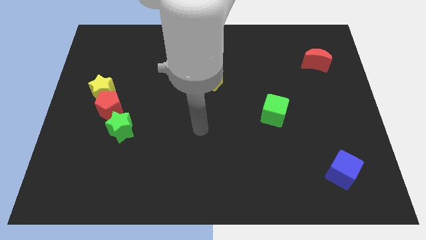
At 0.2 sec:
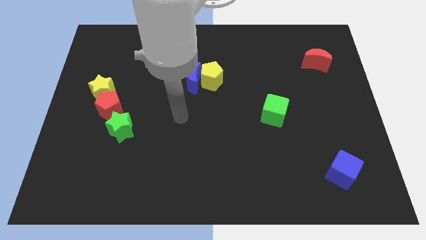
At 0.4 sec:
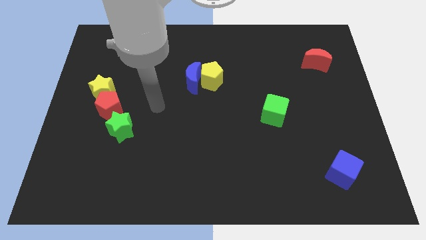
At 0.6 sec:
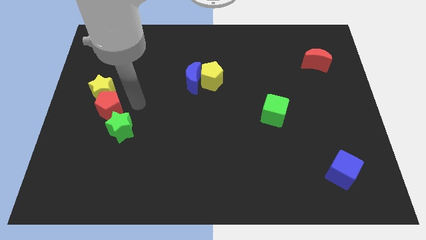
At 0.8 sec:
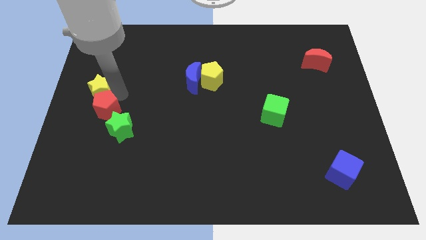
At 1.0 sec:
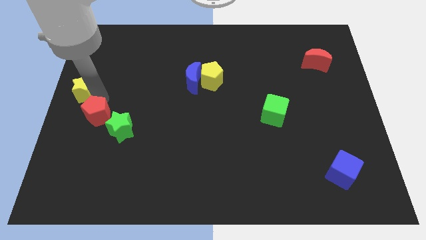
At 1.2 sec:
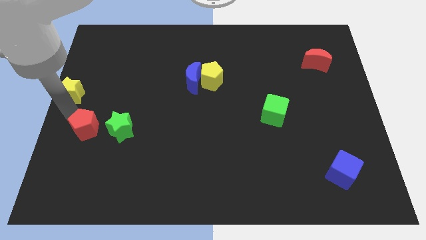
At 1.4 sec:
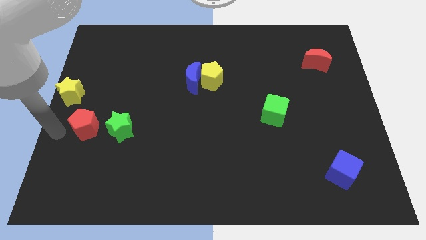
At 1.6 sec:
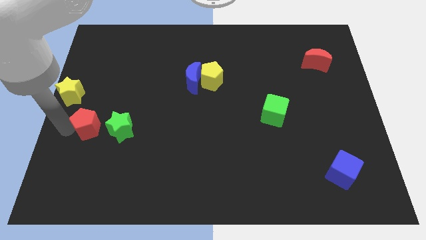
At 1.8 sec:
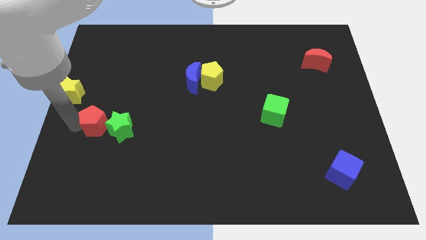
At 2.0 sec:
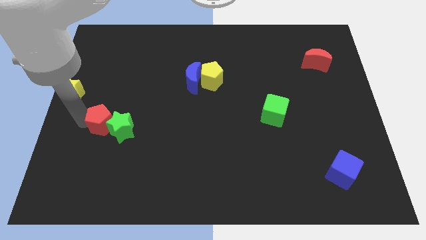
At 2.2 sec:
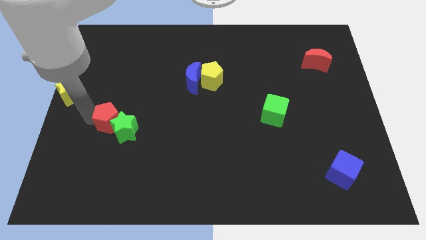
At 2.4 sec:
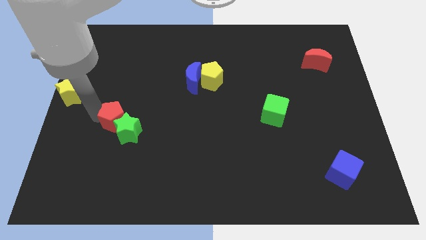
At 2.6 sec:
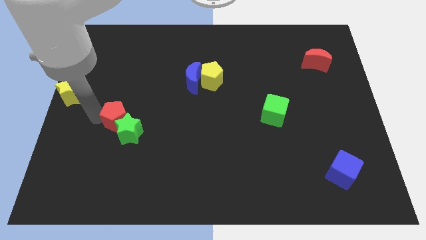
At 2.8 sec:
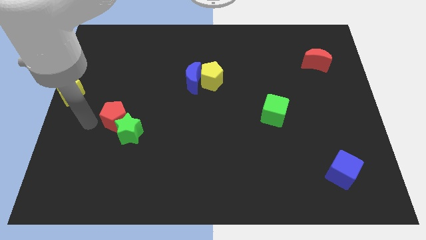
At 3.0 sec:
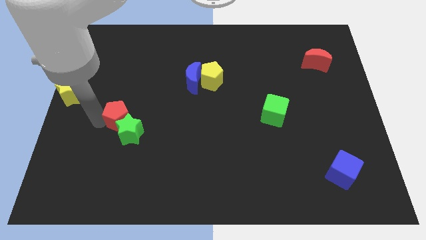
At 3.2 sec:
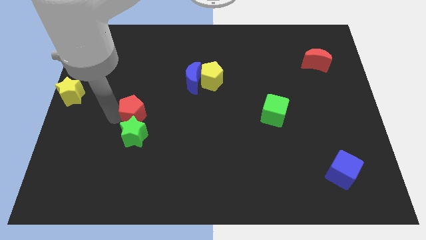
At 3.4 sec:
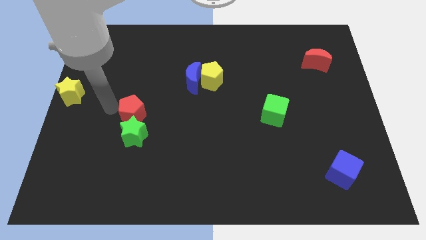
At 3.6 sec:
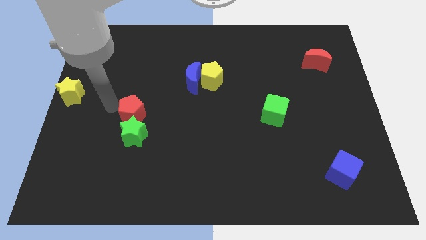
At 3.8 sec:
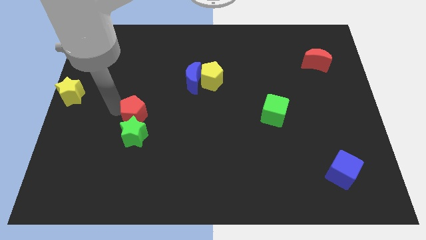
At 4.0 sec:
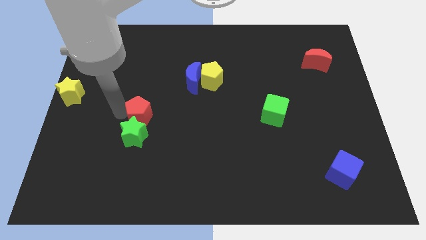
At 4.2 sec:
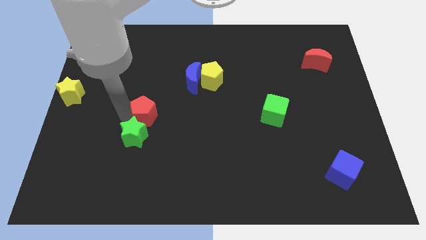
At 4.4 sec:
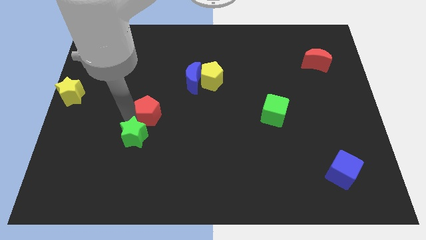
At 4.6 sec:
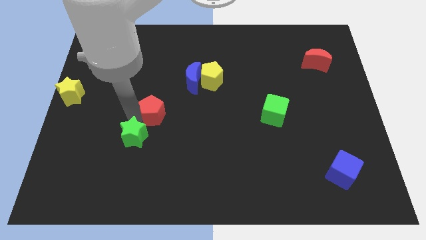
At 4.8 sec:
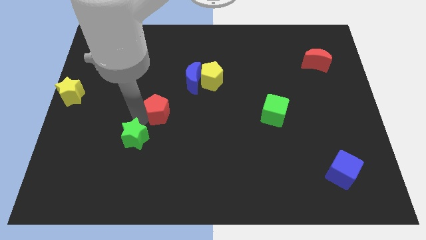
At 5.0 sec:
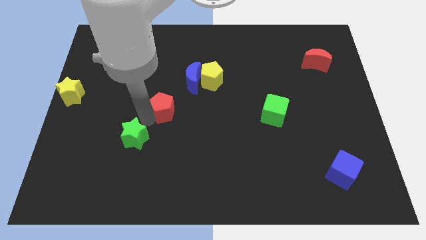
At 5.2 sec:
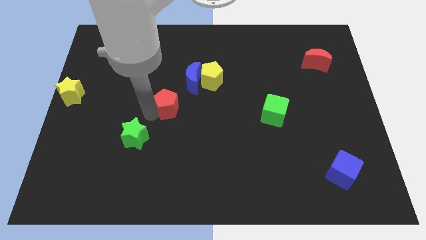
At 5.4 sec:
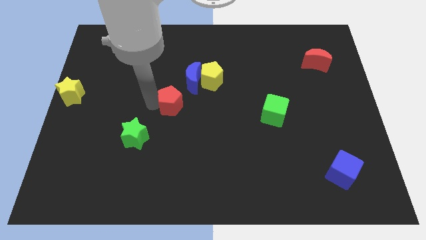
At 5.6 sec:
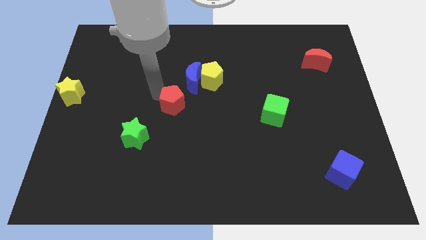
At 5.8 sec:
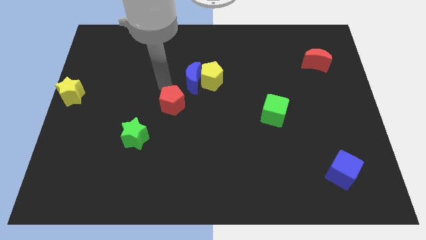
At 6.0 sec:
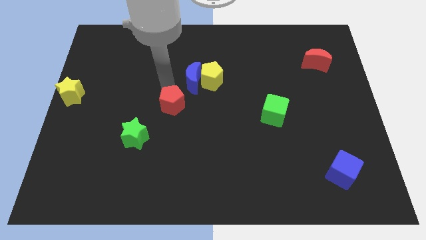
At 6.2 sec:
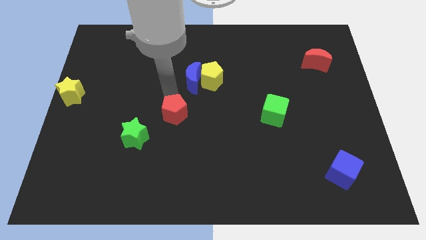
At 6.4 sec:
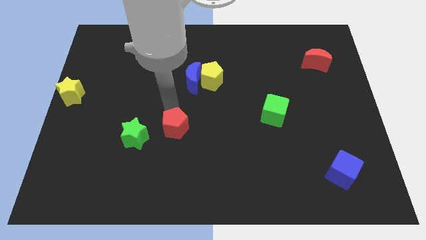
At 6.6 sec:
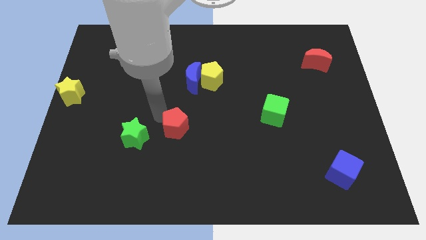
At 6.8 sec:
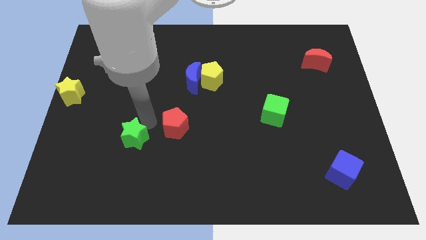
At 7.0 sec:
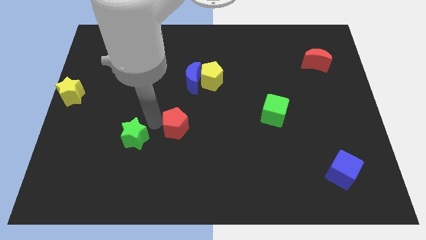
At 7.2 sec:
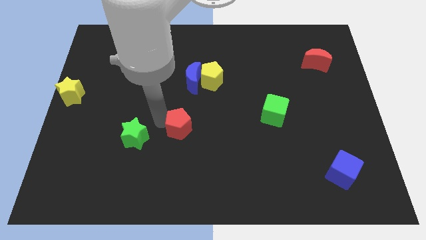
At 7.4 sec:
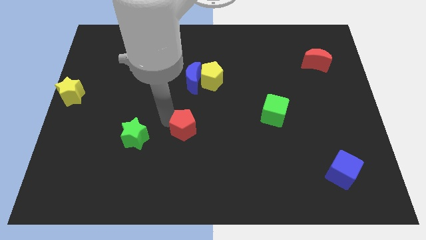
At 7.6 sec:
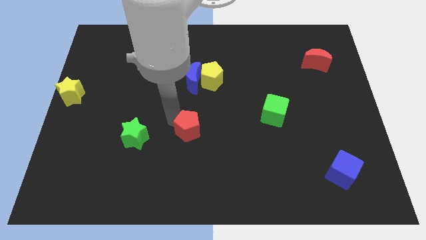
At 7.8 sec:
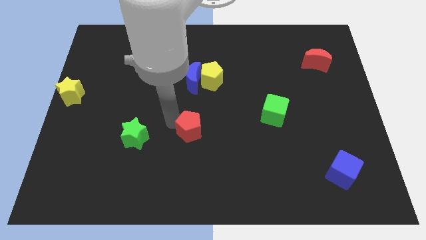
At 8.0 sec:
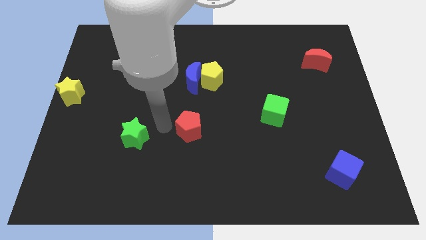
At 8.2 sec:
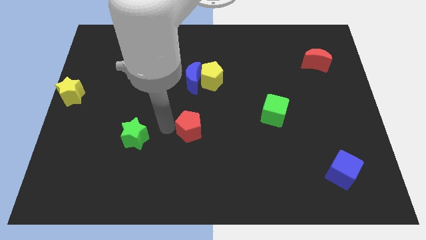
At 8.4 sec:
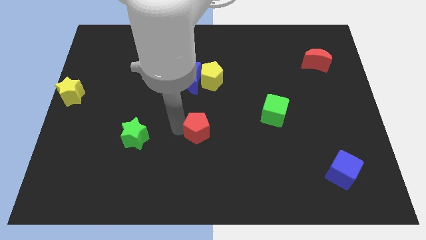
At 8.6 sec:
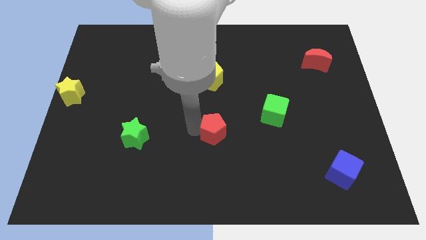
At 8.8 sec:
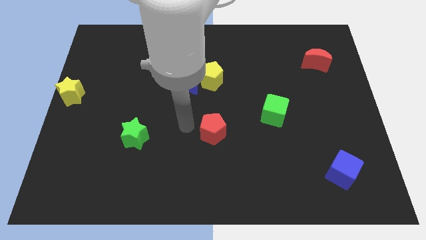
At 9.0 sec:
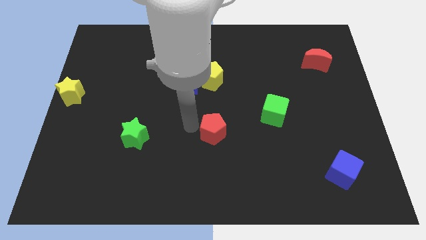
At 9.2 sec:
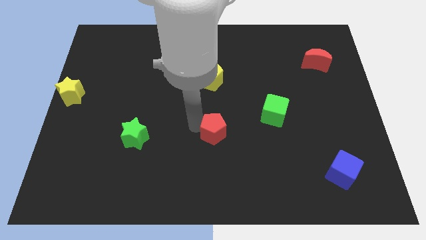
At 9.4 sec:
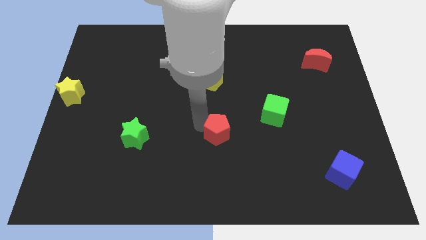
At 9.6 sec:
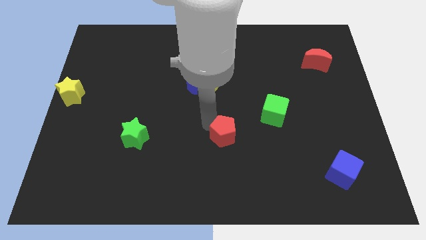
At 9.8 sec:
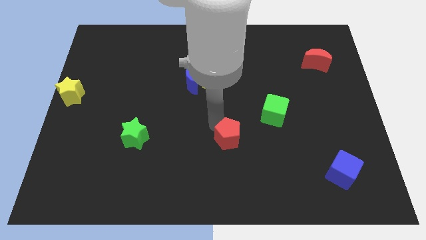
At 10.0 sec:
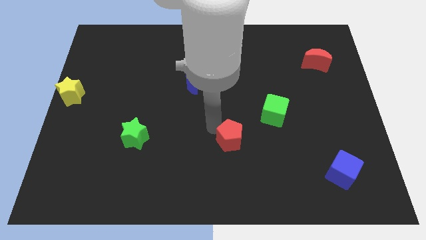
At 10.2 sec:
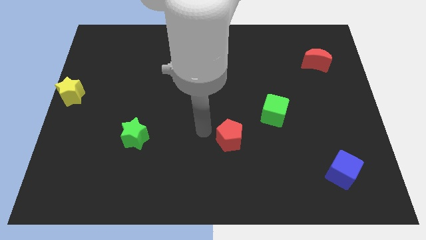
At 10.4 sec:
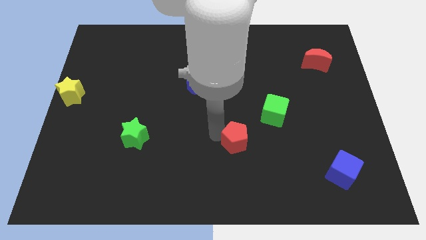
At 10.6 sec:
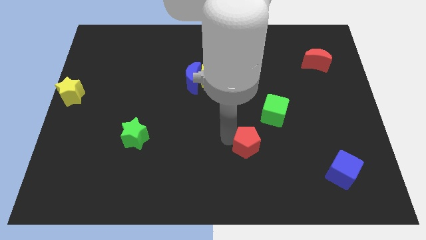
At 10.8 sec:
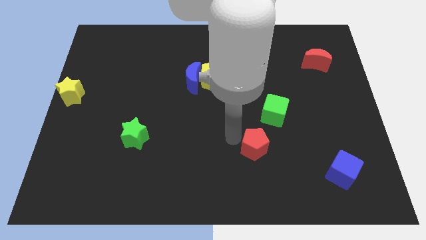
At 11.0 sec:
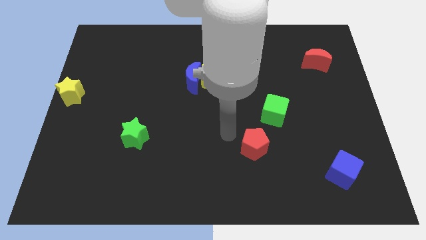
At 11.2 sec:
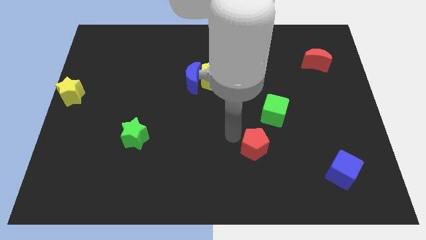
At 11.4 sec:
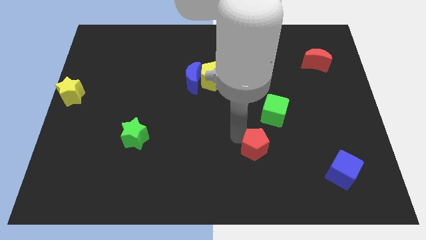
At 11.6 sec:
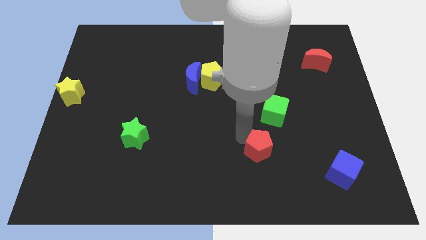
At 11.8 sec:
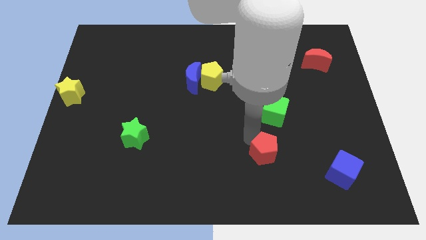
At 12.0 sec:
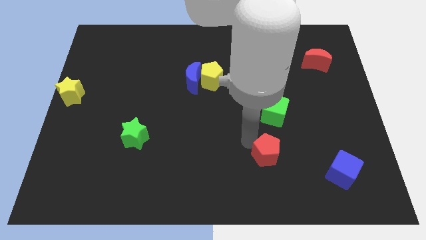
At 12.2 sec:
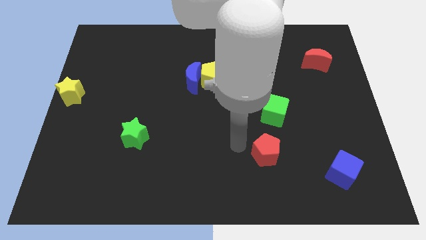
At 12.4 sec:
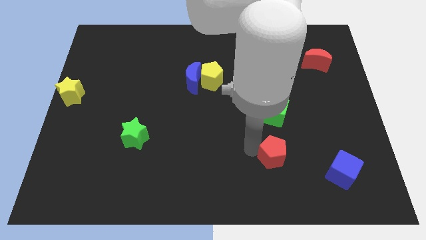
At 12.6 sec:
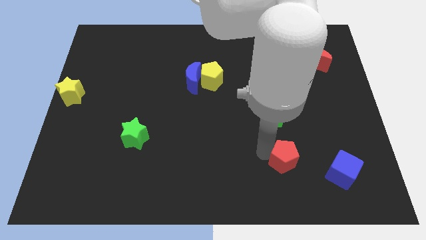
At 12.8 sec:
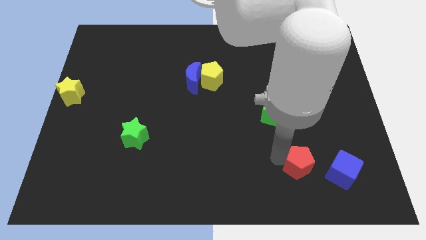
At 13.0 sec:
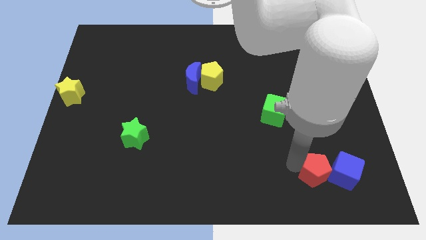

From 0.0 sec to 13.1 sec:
move the red pentagon close to the blue cube
